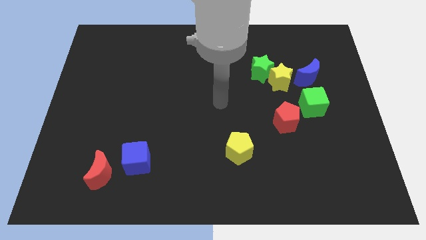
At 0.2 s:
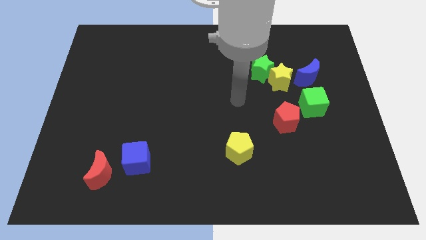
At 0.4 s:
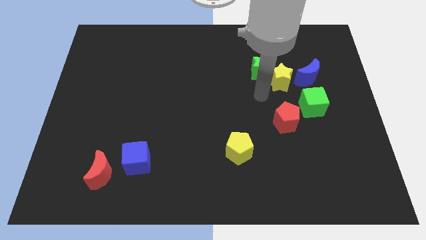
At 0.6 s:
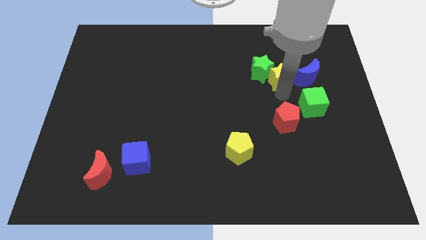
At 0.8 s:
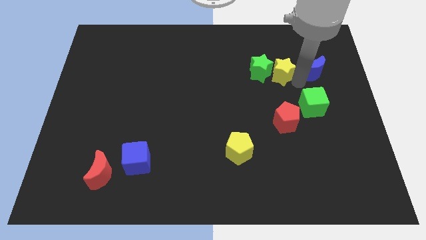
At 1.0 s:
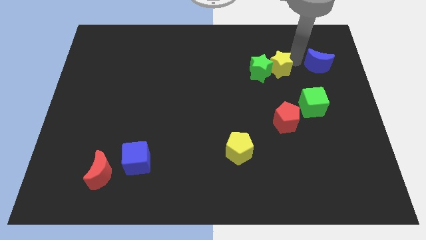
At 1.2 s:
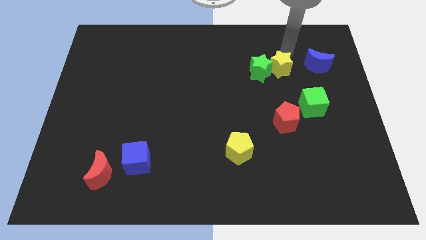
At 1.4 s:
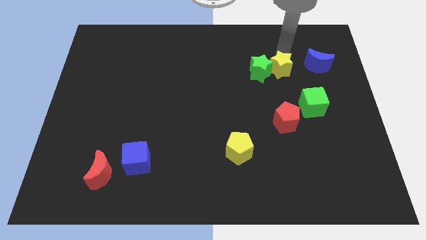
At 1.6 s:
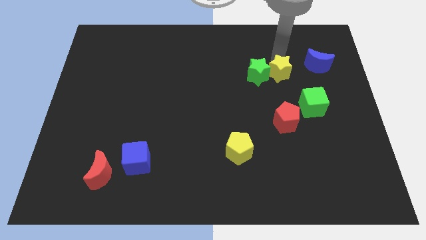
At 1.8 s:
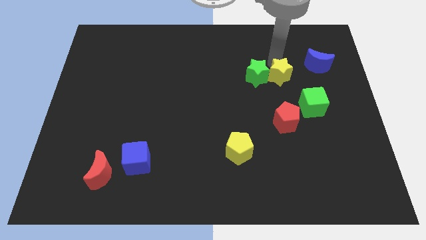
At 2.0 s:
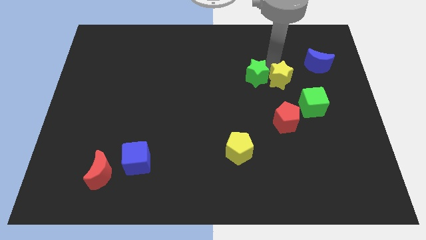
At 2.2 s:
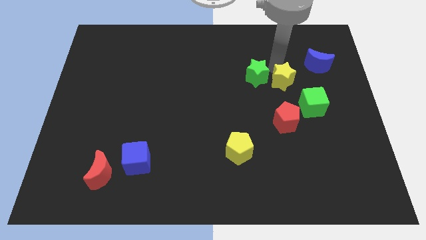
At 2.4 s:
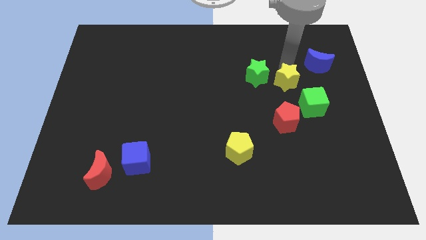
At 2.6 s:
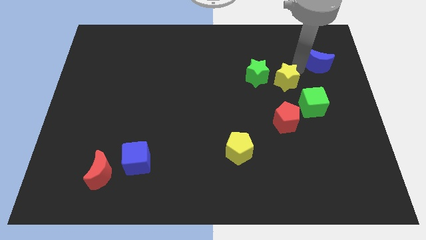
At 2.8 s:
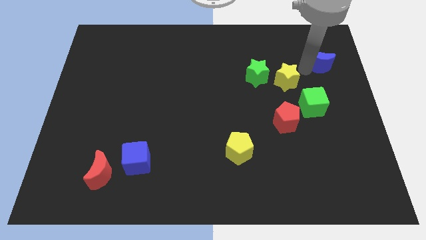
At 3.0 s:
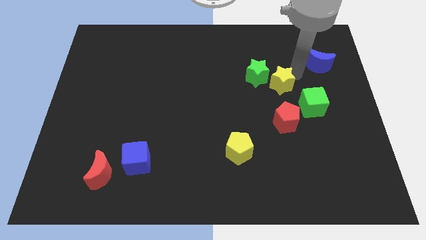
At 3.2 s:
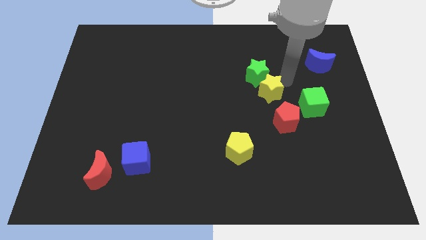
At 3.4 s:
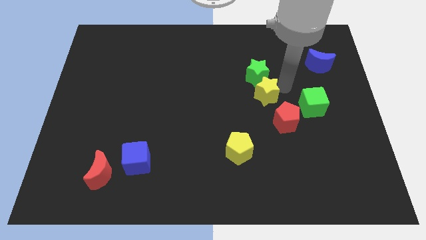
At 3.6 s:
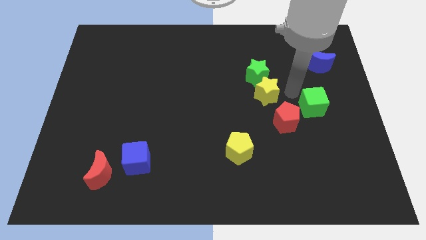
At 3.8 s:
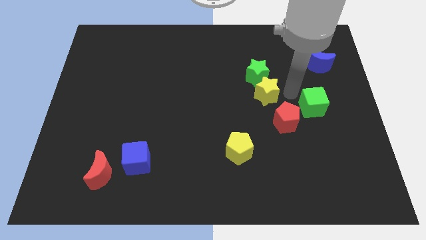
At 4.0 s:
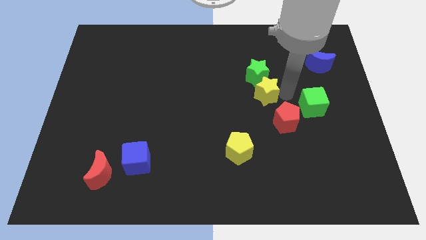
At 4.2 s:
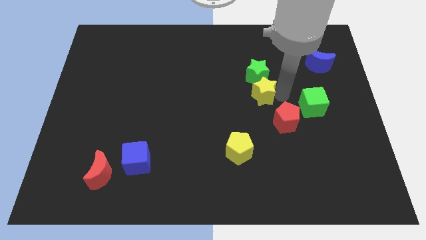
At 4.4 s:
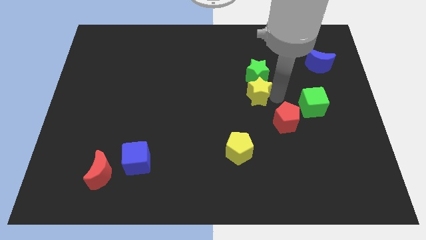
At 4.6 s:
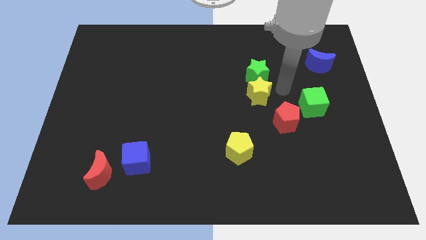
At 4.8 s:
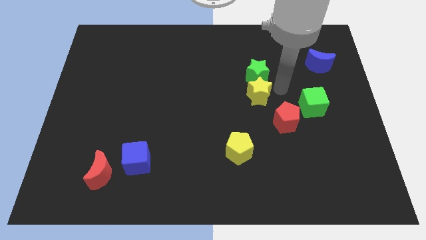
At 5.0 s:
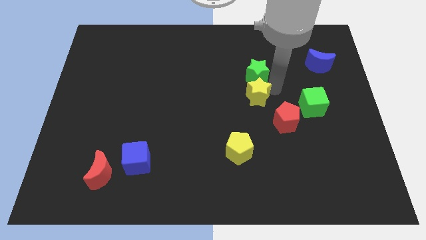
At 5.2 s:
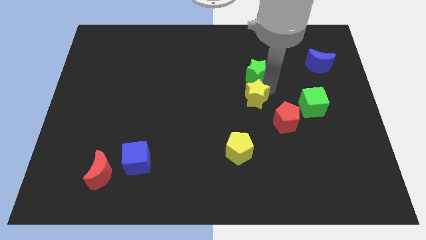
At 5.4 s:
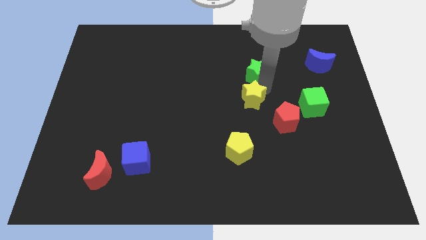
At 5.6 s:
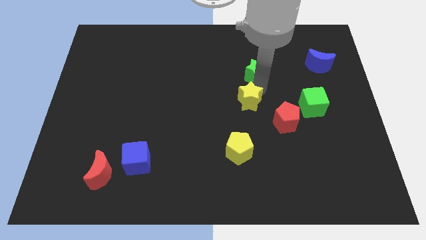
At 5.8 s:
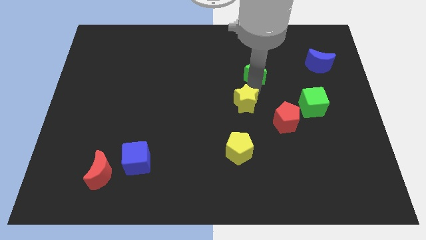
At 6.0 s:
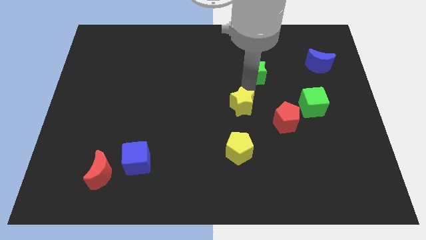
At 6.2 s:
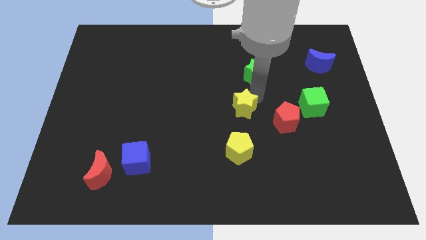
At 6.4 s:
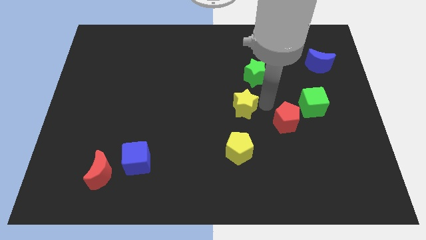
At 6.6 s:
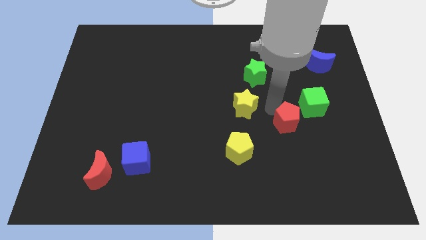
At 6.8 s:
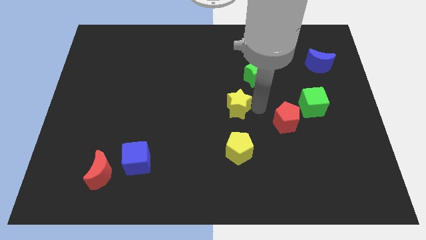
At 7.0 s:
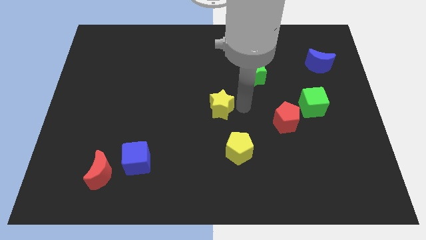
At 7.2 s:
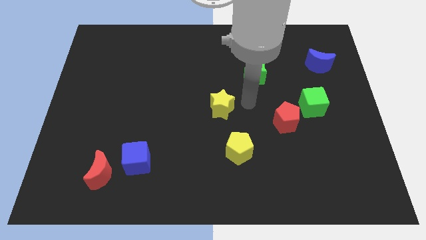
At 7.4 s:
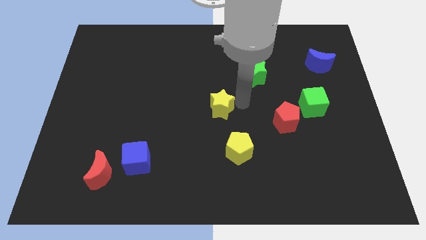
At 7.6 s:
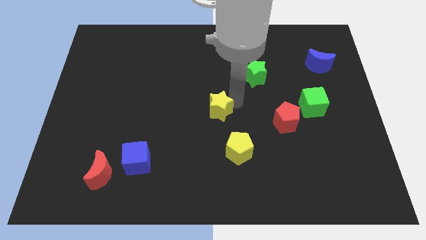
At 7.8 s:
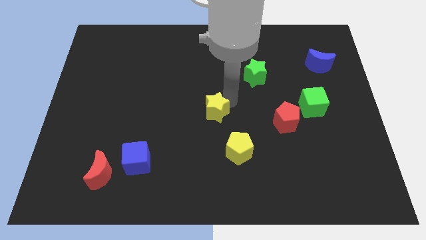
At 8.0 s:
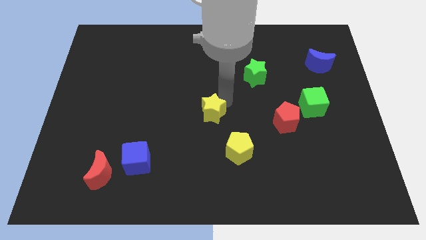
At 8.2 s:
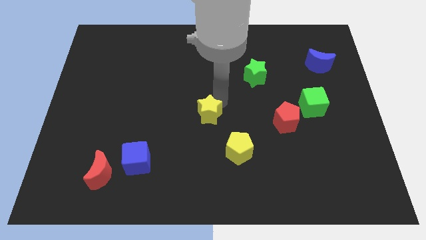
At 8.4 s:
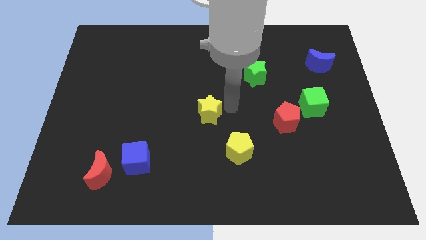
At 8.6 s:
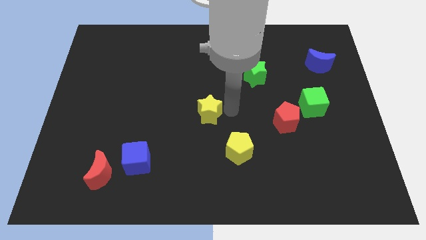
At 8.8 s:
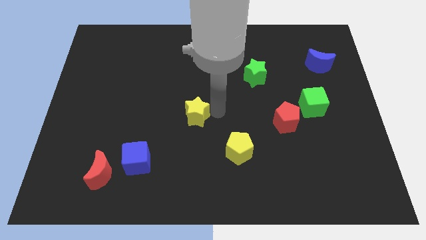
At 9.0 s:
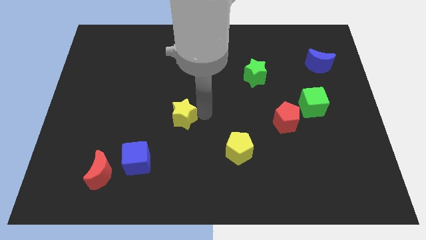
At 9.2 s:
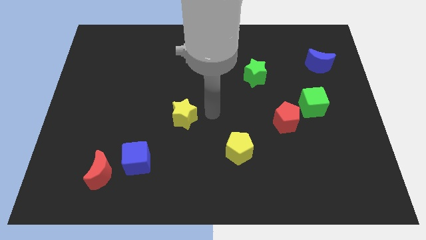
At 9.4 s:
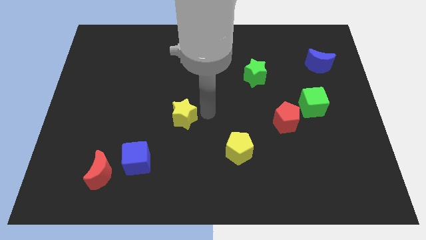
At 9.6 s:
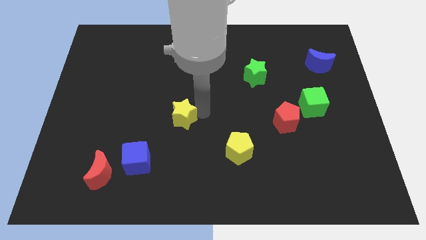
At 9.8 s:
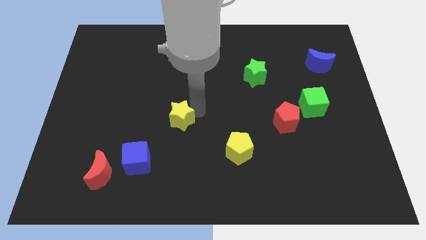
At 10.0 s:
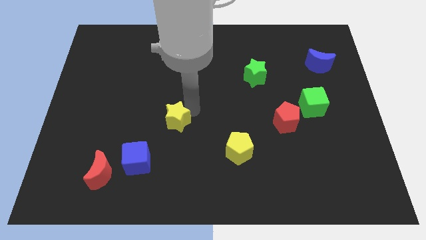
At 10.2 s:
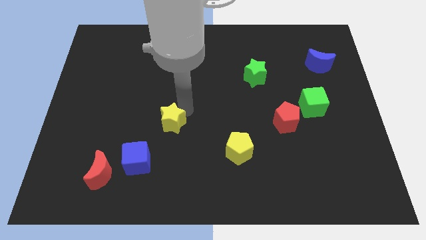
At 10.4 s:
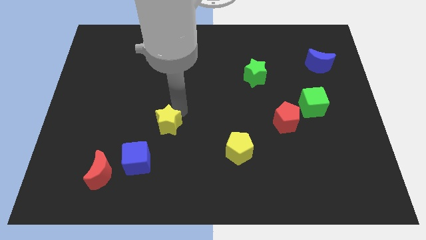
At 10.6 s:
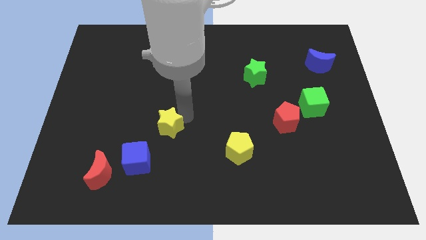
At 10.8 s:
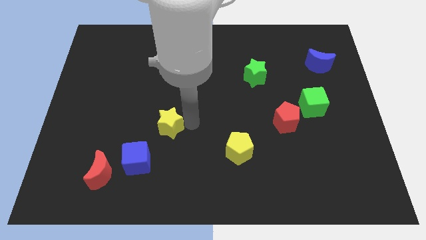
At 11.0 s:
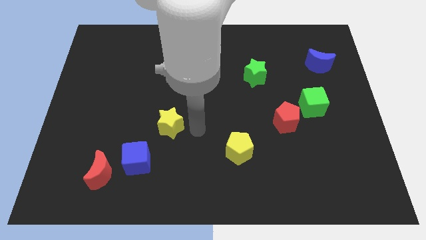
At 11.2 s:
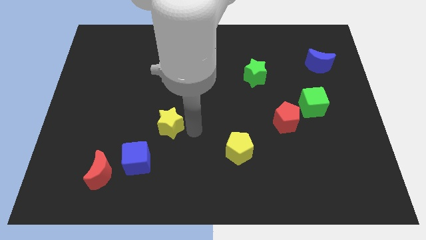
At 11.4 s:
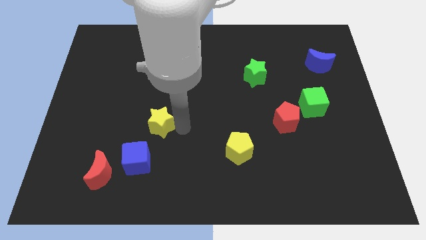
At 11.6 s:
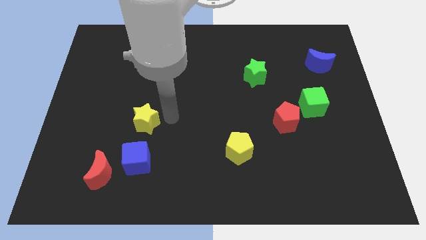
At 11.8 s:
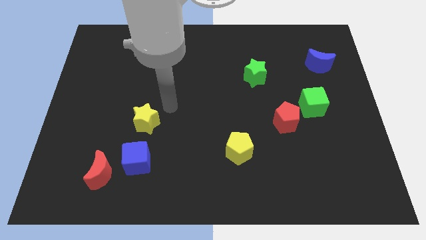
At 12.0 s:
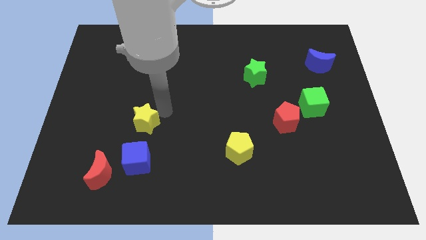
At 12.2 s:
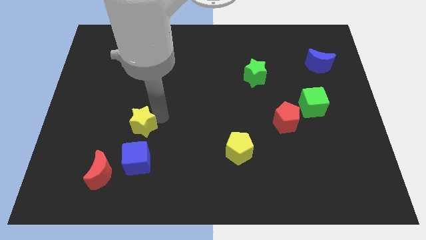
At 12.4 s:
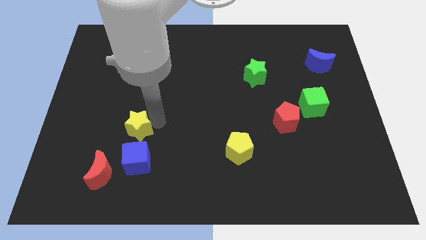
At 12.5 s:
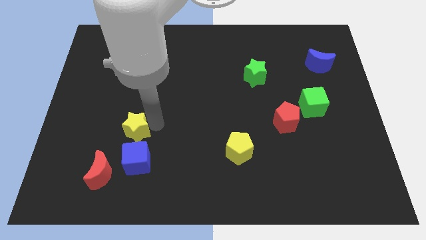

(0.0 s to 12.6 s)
put the yellow star to the top left side of the blue cube

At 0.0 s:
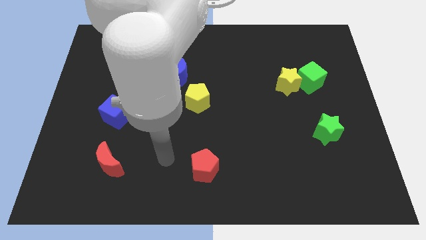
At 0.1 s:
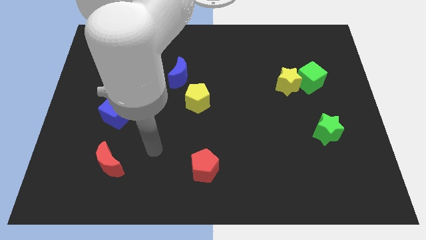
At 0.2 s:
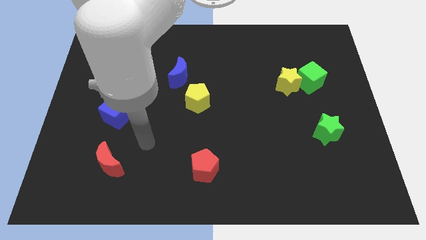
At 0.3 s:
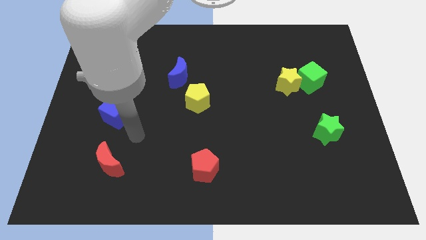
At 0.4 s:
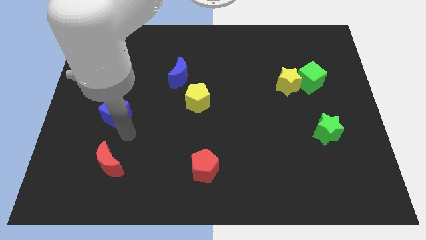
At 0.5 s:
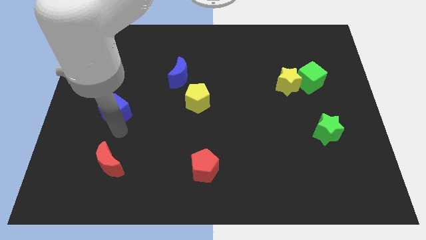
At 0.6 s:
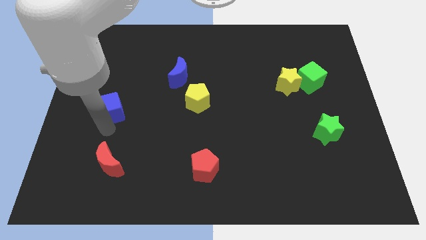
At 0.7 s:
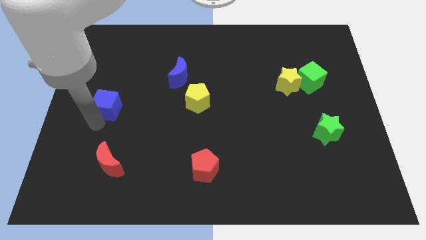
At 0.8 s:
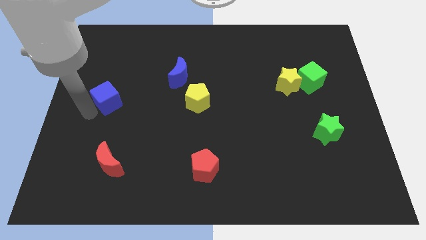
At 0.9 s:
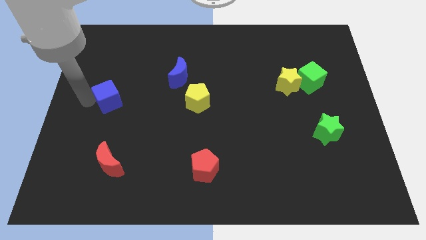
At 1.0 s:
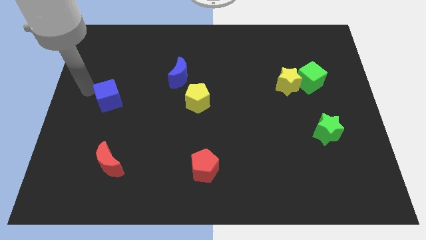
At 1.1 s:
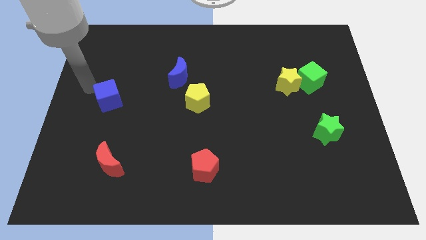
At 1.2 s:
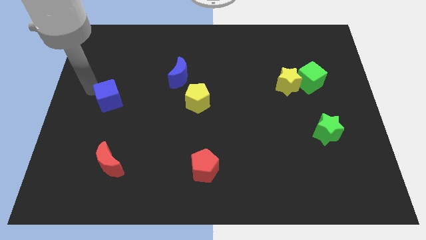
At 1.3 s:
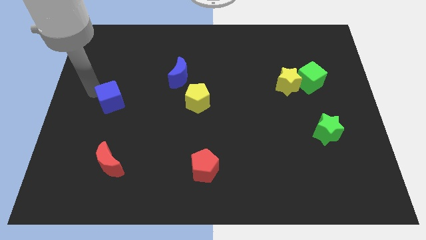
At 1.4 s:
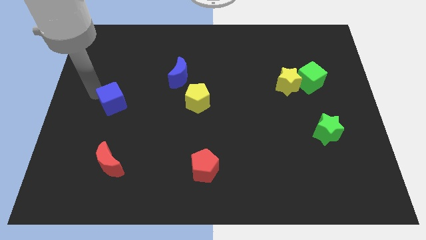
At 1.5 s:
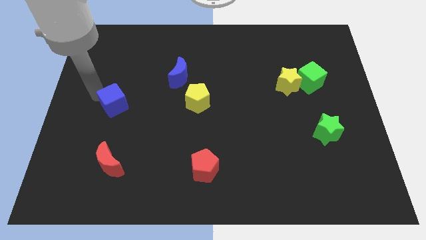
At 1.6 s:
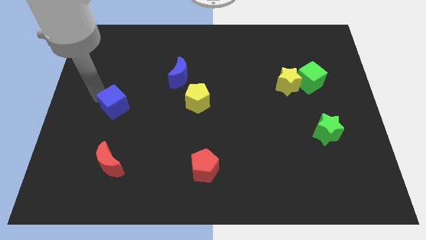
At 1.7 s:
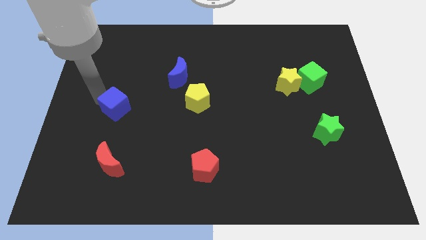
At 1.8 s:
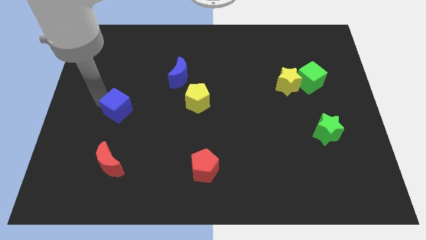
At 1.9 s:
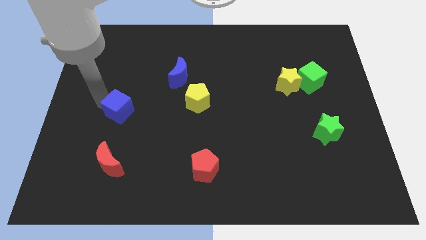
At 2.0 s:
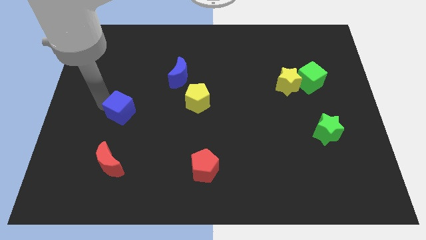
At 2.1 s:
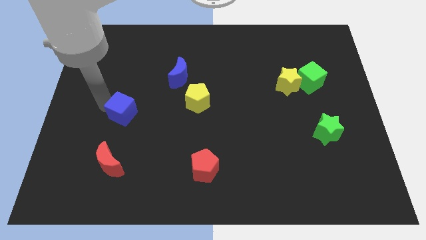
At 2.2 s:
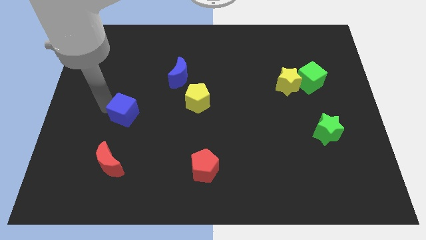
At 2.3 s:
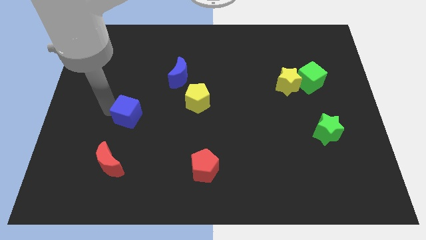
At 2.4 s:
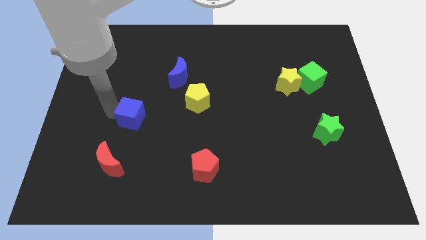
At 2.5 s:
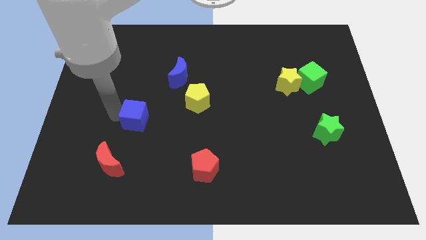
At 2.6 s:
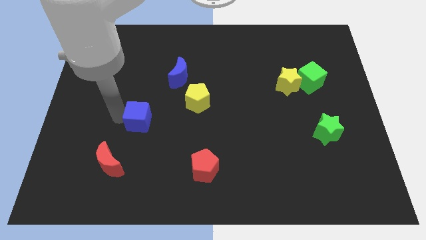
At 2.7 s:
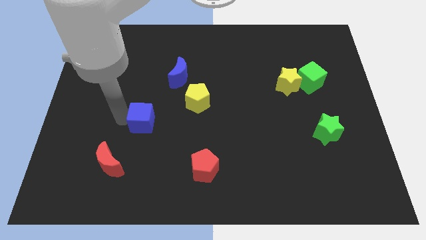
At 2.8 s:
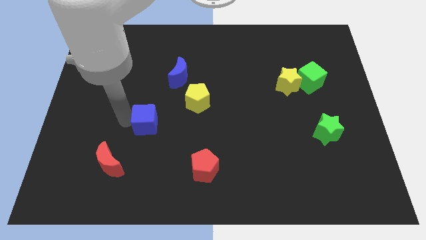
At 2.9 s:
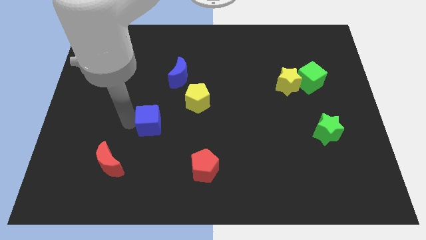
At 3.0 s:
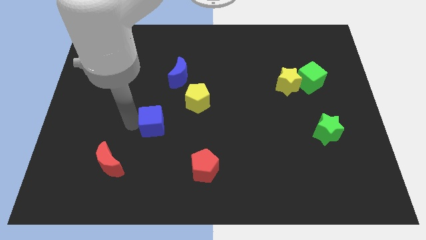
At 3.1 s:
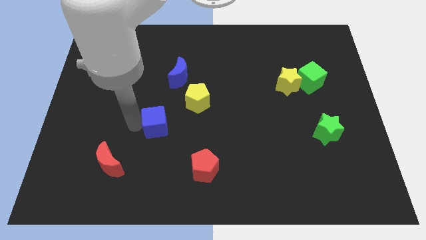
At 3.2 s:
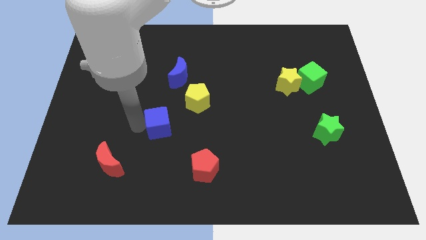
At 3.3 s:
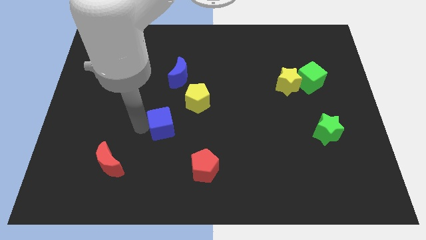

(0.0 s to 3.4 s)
slide the blue cube to the bottom of the blue moon
